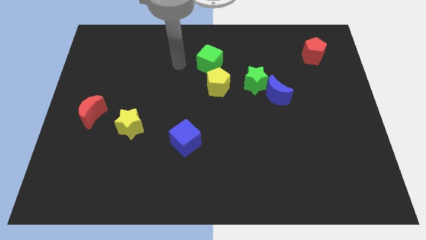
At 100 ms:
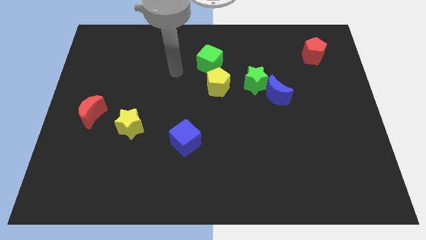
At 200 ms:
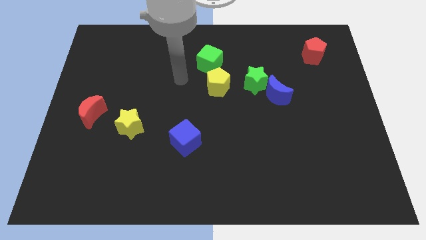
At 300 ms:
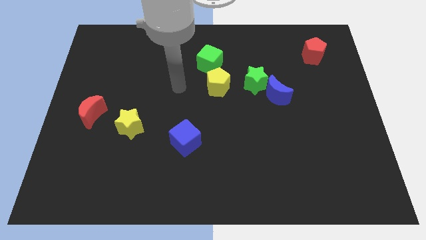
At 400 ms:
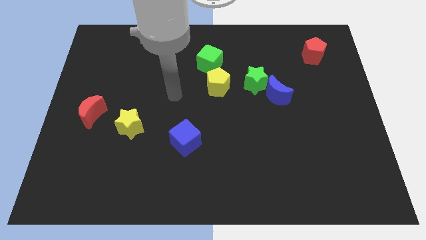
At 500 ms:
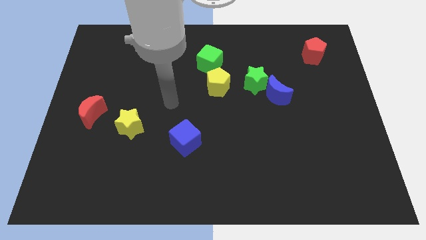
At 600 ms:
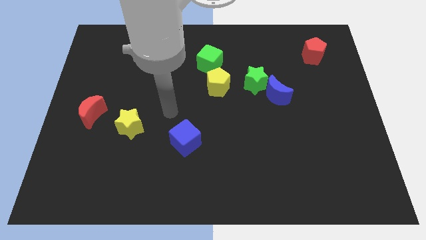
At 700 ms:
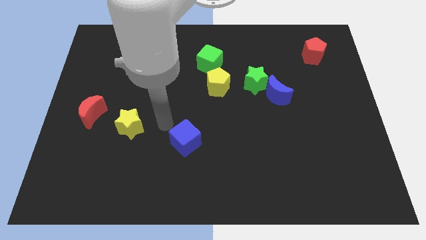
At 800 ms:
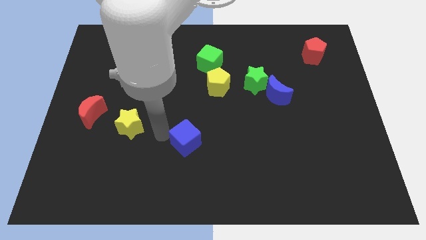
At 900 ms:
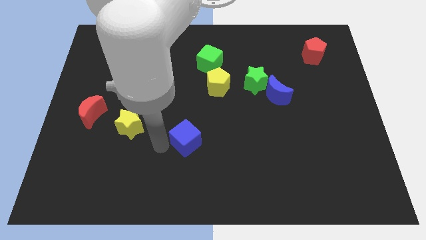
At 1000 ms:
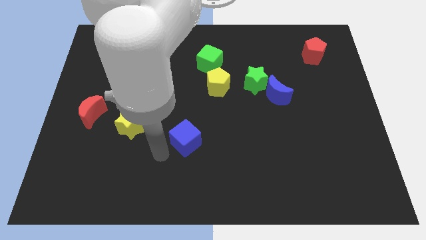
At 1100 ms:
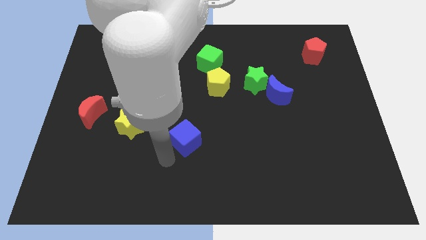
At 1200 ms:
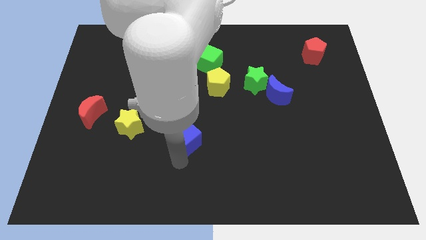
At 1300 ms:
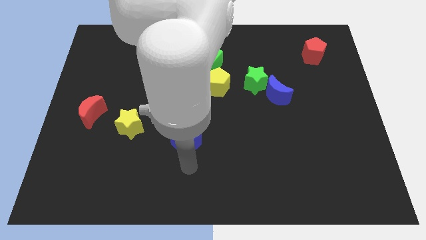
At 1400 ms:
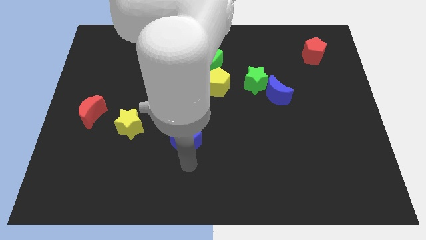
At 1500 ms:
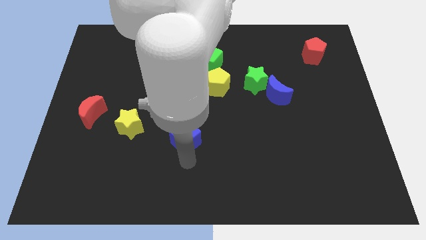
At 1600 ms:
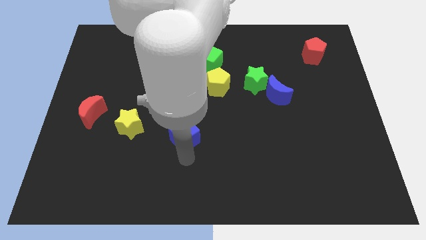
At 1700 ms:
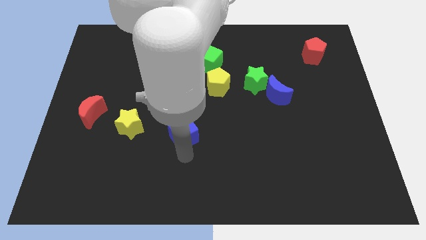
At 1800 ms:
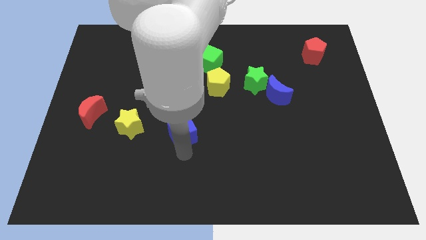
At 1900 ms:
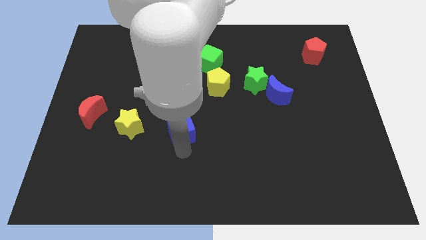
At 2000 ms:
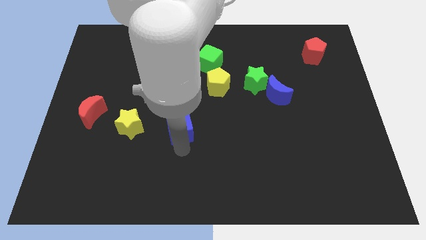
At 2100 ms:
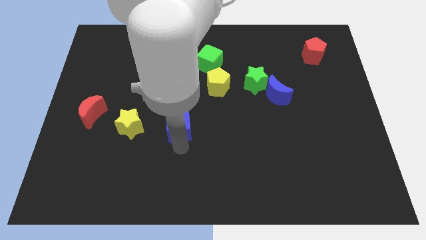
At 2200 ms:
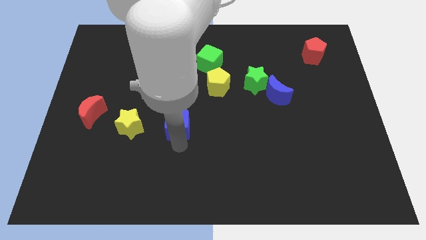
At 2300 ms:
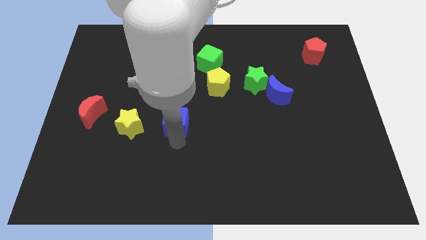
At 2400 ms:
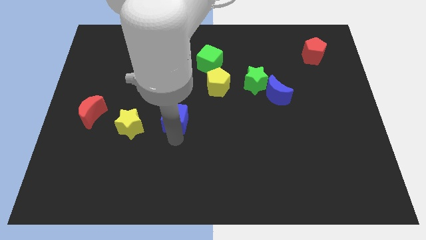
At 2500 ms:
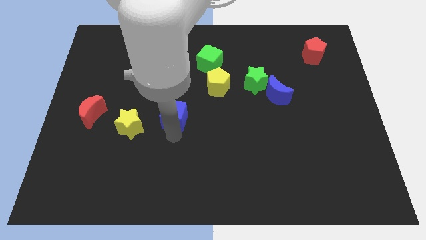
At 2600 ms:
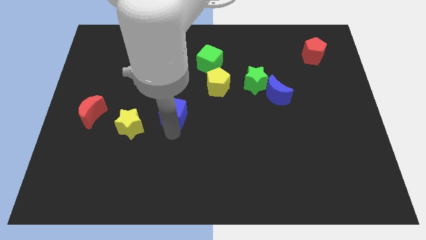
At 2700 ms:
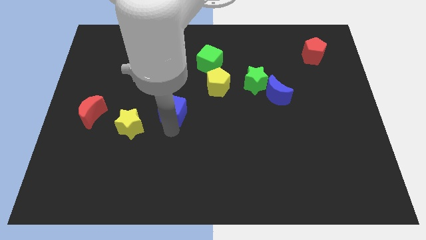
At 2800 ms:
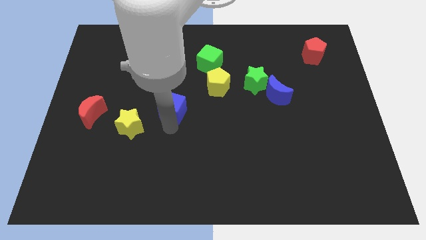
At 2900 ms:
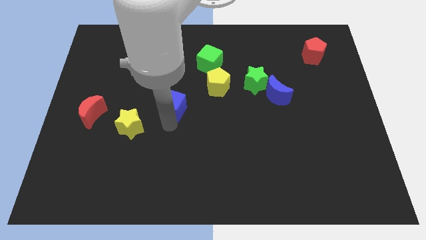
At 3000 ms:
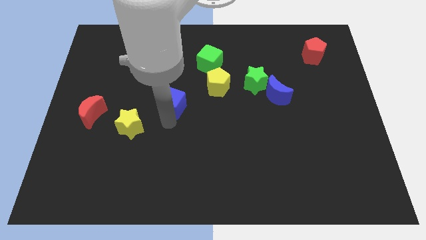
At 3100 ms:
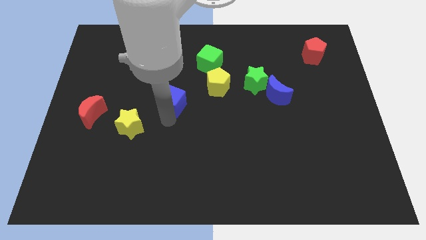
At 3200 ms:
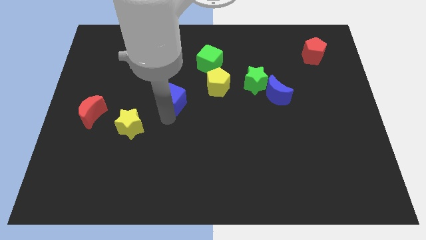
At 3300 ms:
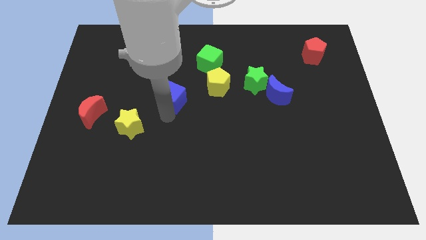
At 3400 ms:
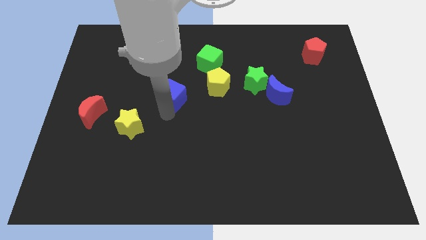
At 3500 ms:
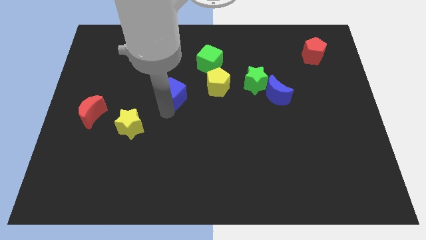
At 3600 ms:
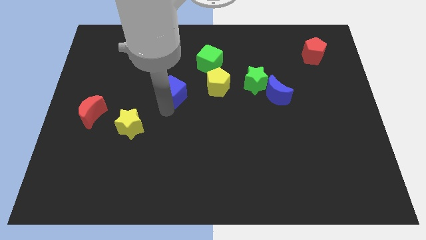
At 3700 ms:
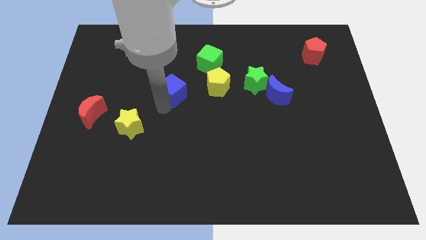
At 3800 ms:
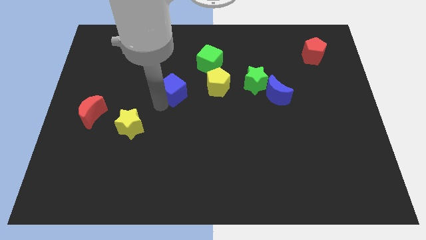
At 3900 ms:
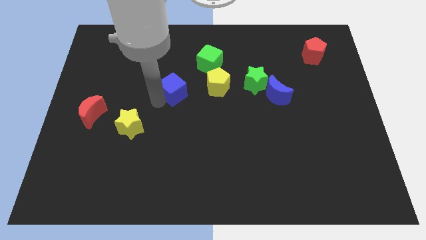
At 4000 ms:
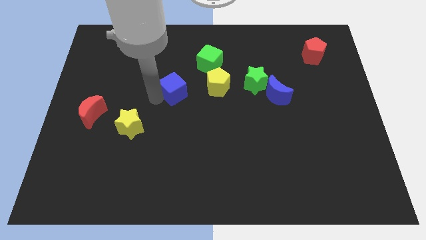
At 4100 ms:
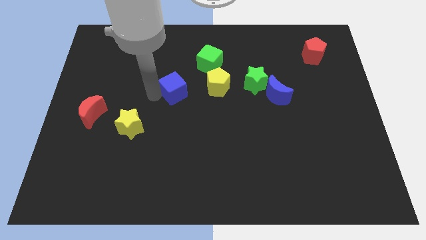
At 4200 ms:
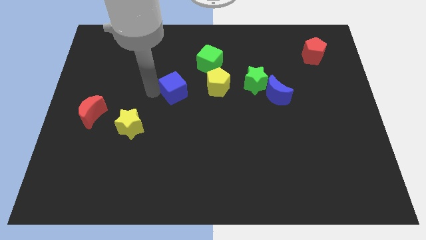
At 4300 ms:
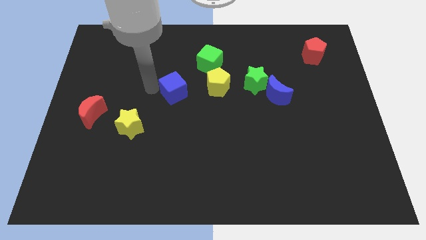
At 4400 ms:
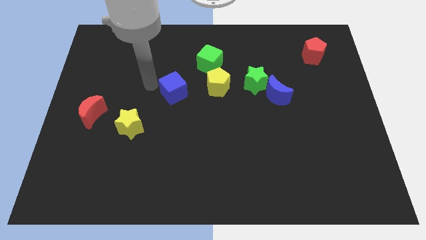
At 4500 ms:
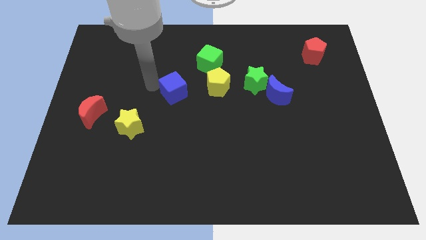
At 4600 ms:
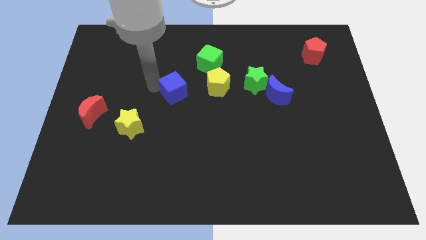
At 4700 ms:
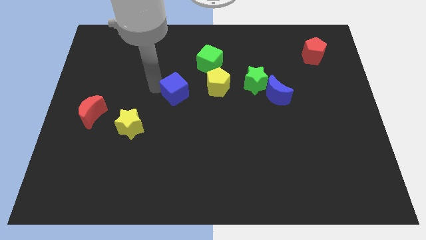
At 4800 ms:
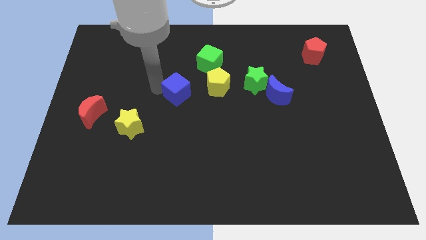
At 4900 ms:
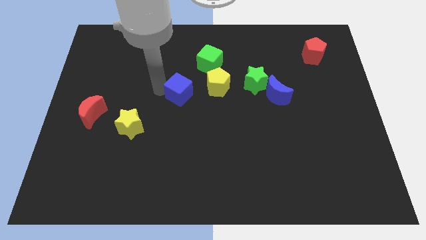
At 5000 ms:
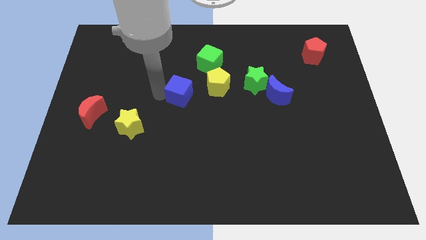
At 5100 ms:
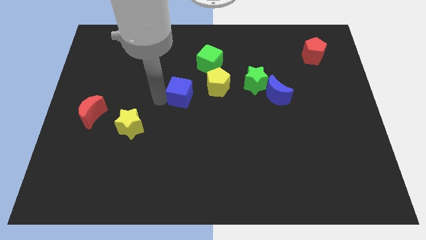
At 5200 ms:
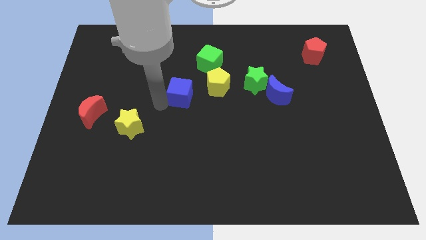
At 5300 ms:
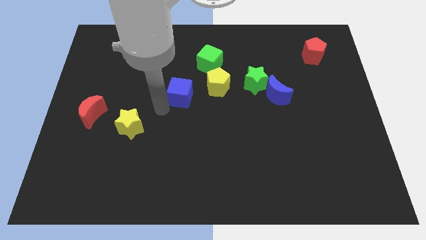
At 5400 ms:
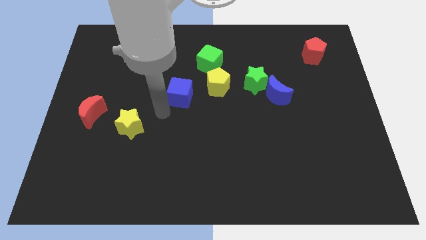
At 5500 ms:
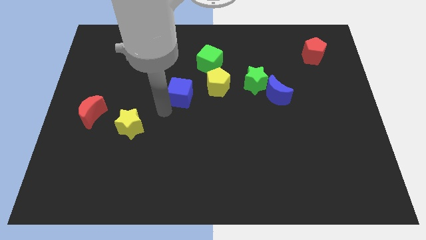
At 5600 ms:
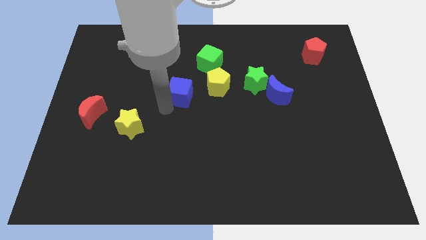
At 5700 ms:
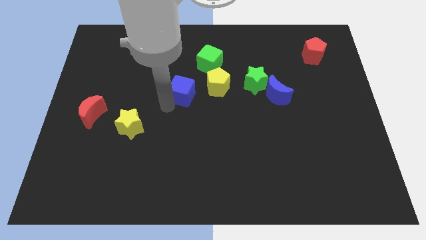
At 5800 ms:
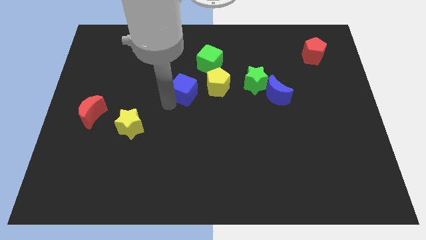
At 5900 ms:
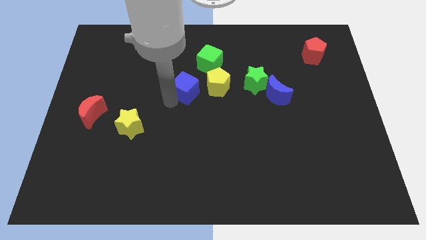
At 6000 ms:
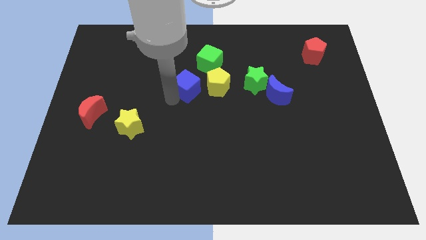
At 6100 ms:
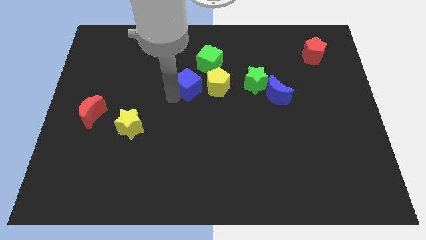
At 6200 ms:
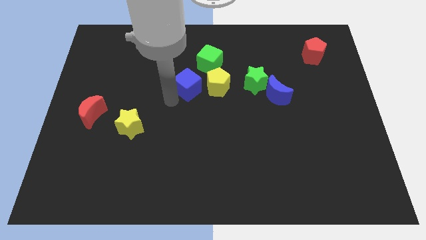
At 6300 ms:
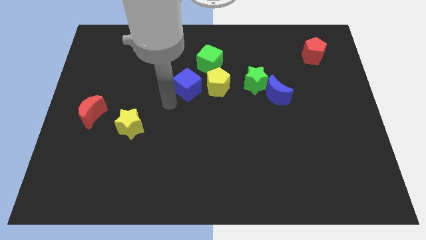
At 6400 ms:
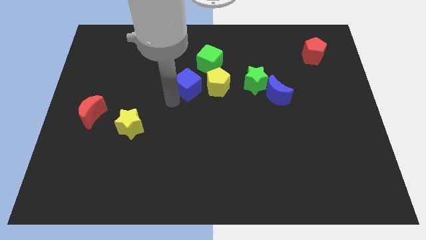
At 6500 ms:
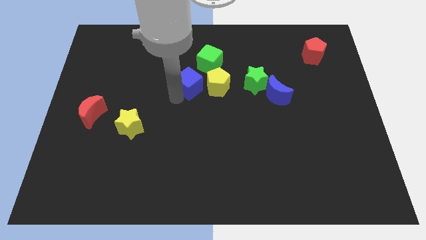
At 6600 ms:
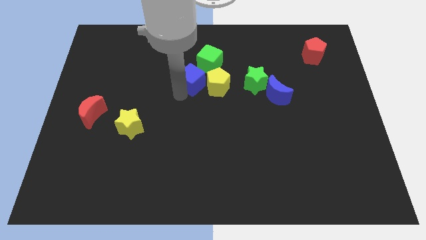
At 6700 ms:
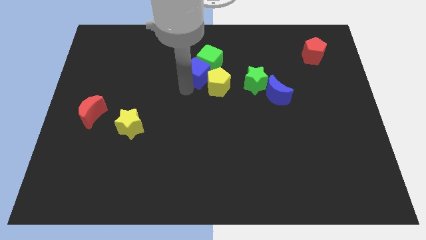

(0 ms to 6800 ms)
move the blue cube towards the green cube
